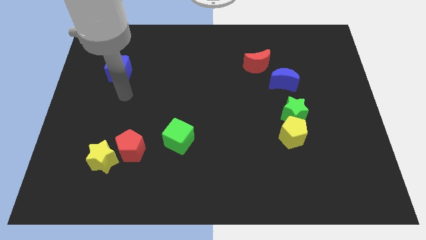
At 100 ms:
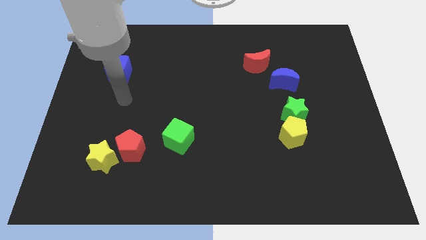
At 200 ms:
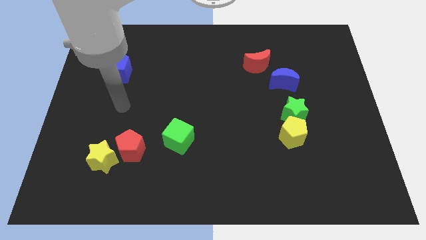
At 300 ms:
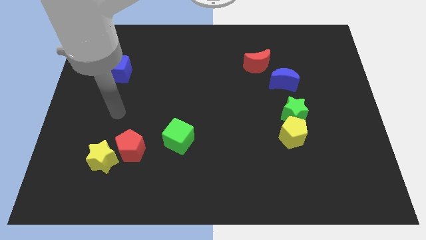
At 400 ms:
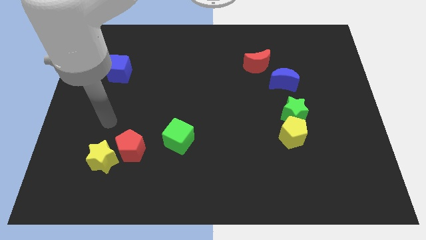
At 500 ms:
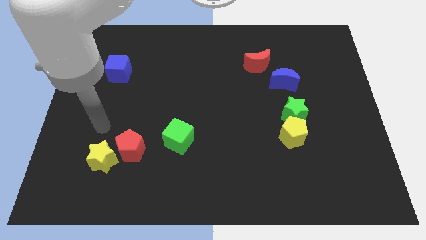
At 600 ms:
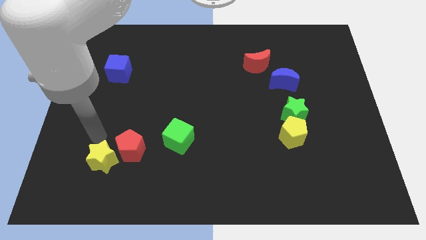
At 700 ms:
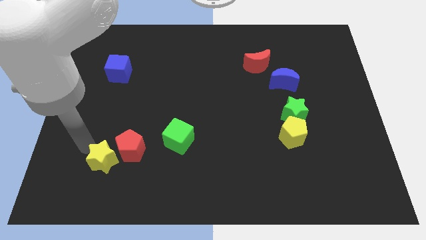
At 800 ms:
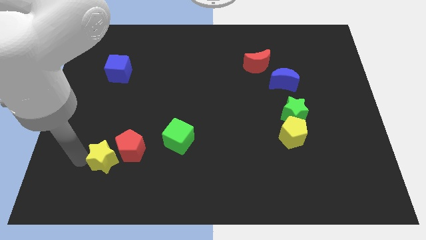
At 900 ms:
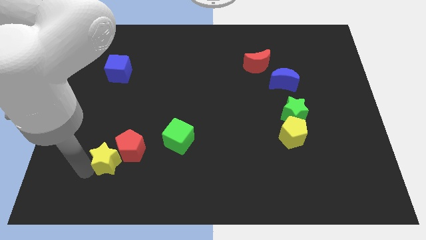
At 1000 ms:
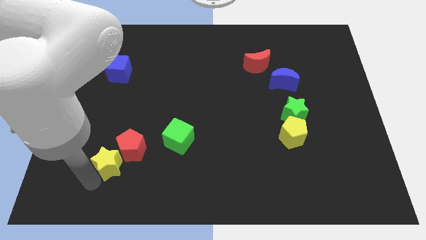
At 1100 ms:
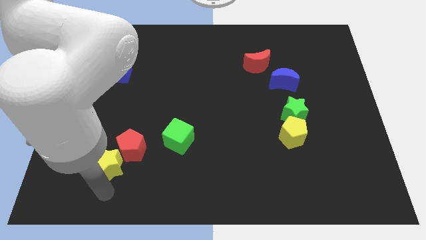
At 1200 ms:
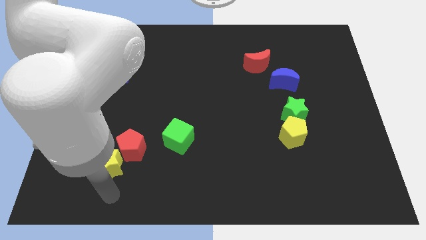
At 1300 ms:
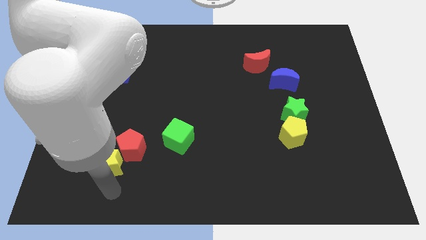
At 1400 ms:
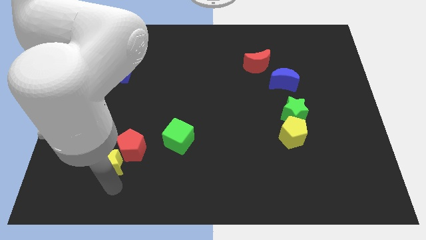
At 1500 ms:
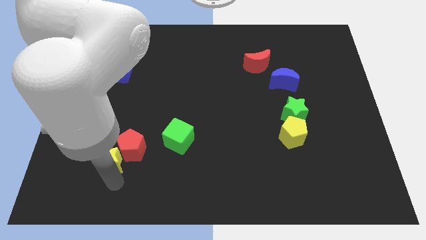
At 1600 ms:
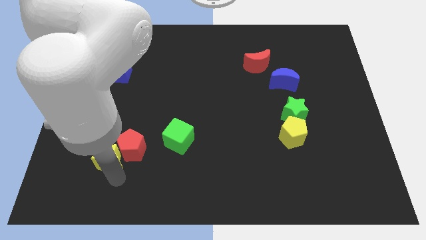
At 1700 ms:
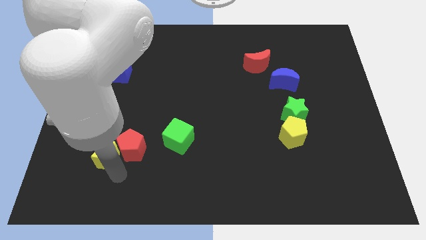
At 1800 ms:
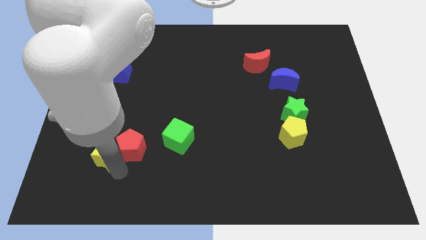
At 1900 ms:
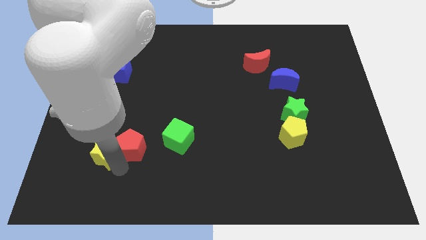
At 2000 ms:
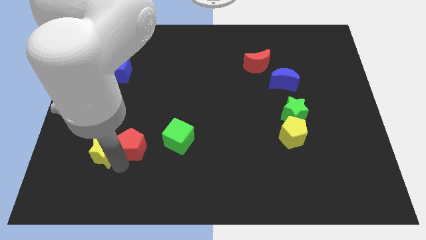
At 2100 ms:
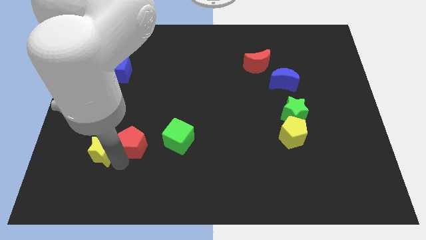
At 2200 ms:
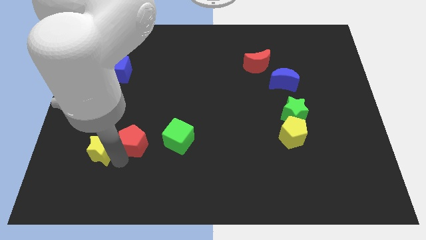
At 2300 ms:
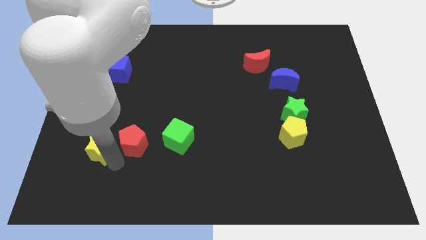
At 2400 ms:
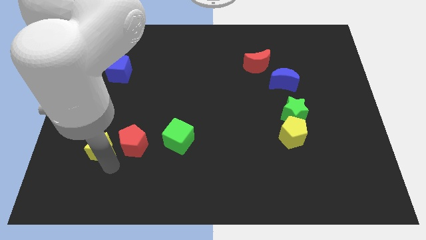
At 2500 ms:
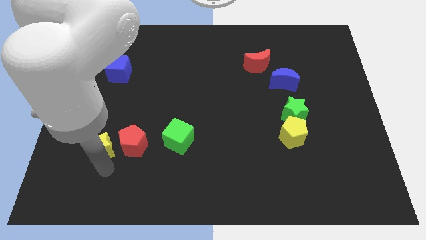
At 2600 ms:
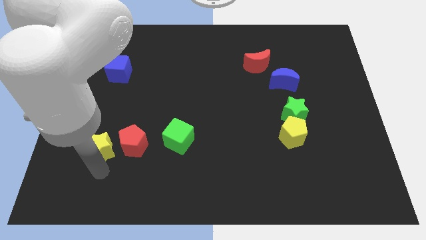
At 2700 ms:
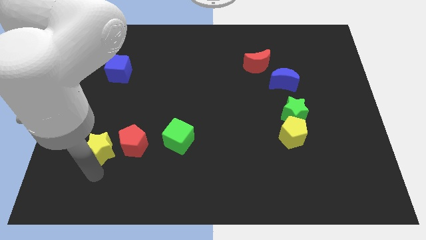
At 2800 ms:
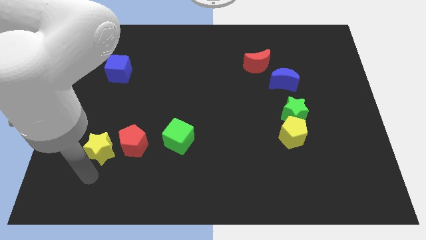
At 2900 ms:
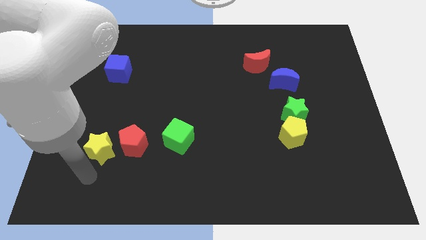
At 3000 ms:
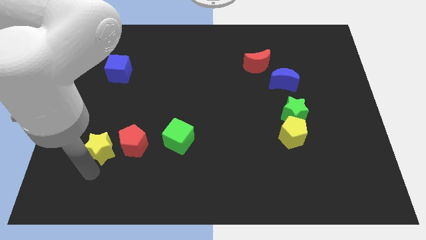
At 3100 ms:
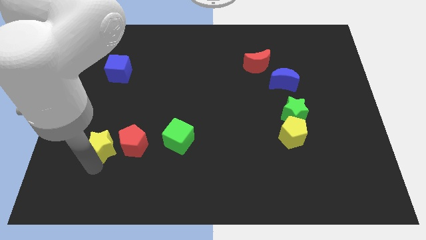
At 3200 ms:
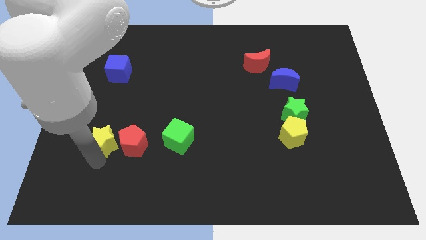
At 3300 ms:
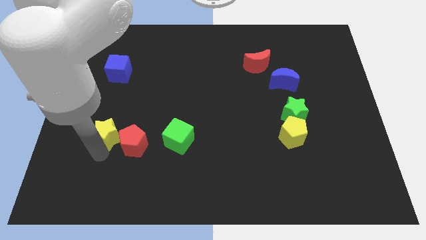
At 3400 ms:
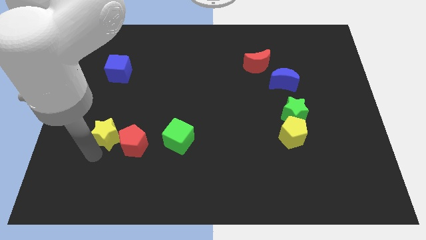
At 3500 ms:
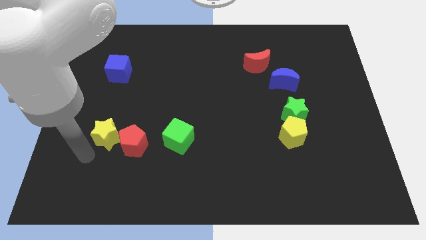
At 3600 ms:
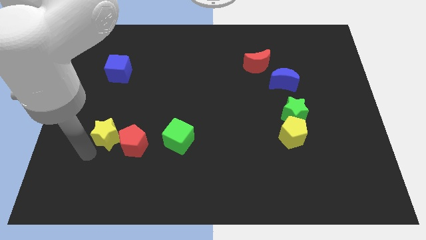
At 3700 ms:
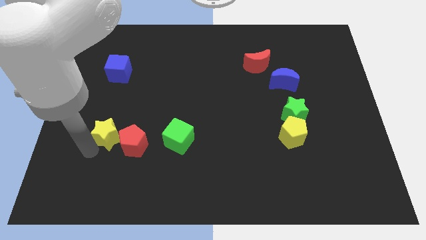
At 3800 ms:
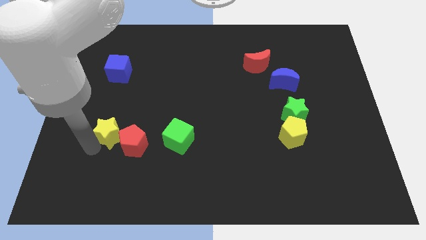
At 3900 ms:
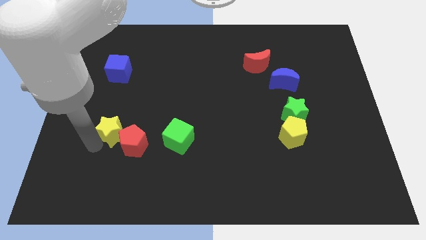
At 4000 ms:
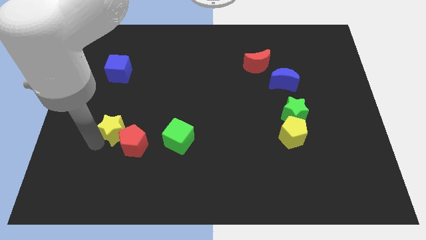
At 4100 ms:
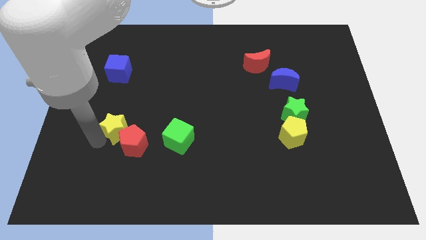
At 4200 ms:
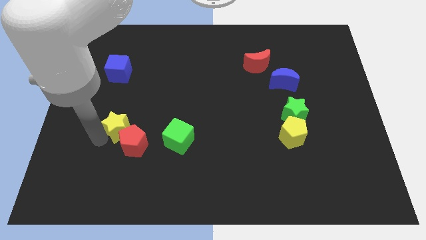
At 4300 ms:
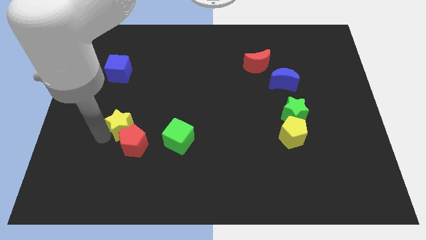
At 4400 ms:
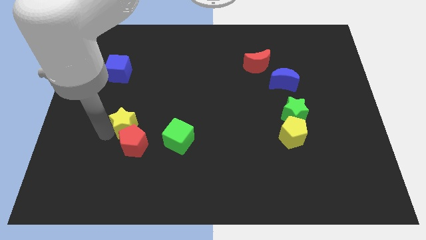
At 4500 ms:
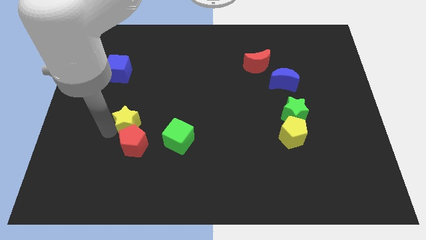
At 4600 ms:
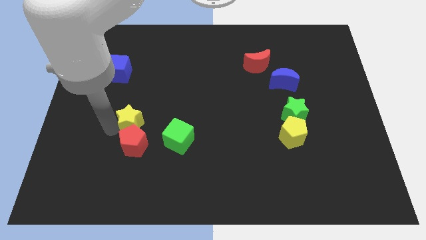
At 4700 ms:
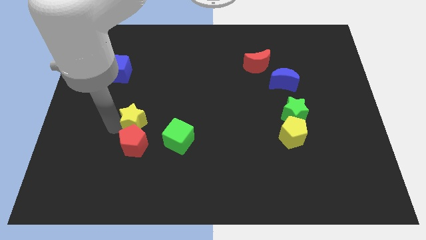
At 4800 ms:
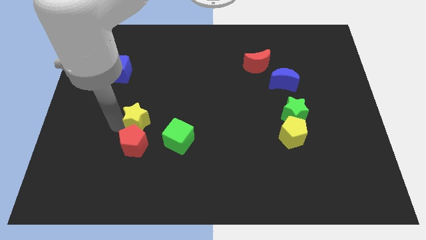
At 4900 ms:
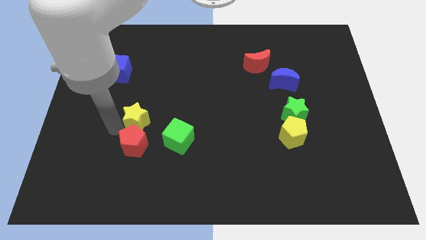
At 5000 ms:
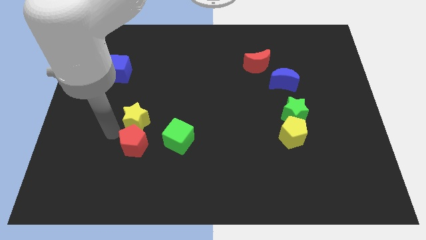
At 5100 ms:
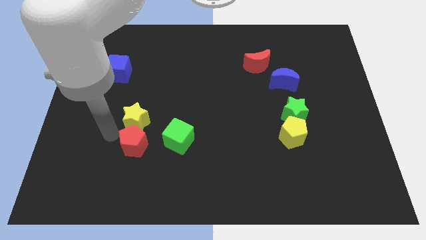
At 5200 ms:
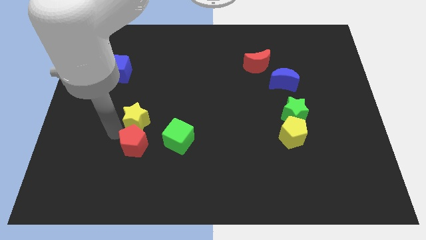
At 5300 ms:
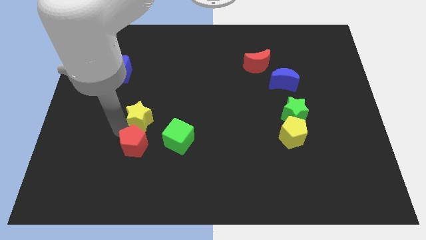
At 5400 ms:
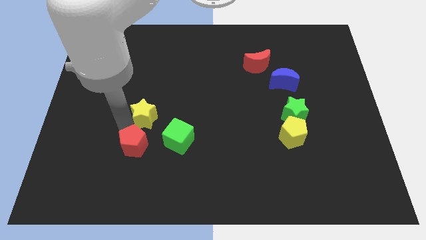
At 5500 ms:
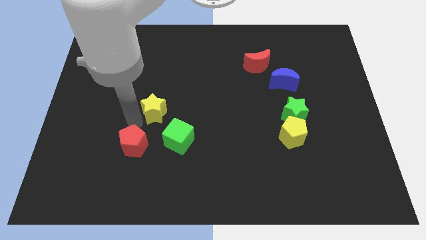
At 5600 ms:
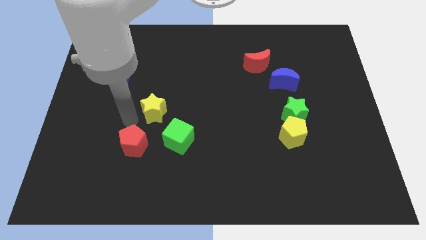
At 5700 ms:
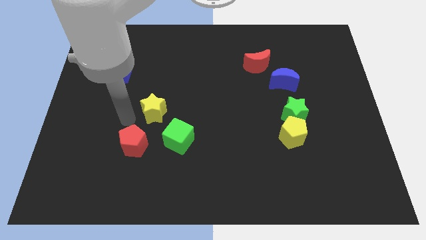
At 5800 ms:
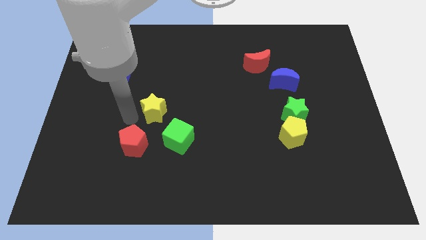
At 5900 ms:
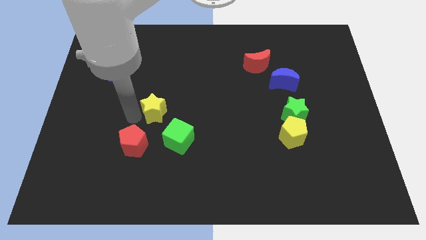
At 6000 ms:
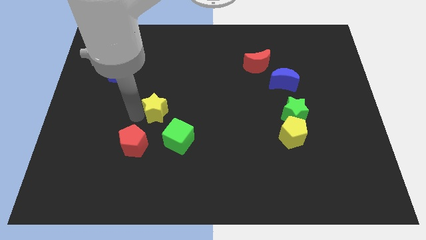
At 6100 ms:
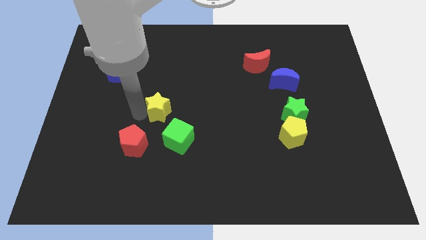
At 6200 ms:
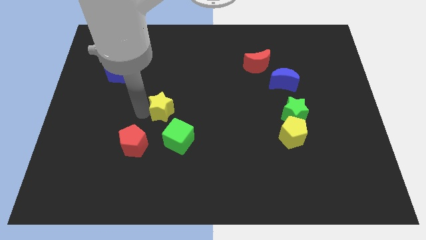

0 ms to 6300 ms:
move the yellow star to the center of the board

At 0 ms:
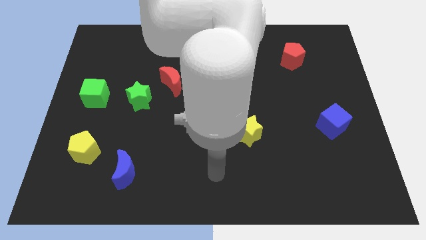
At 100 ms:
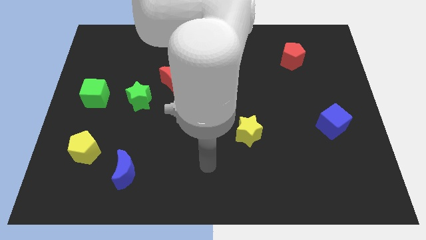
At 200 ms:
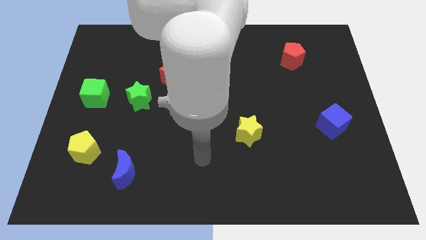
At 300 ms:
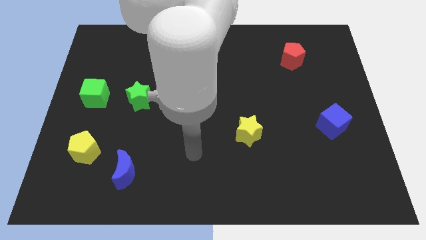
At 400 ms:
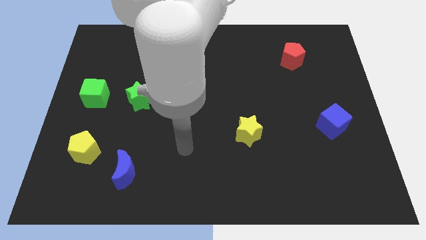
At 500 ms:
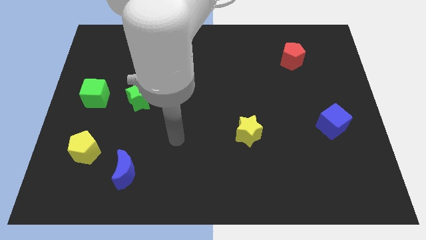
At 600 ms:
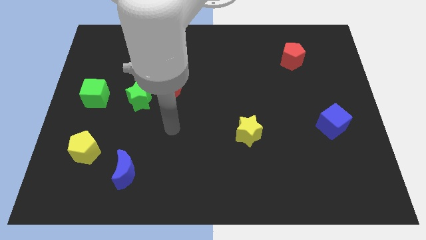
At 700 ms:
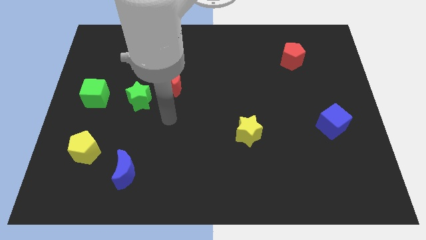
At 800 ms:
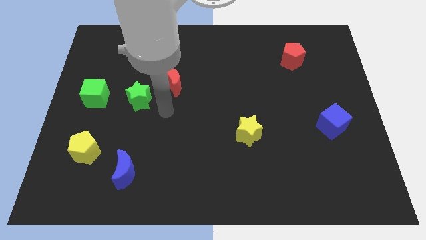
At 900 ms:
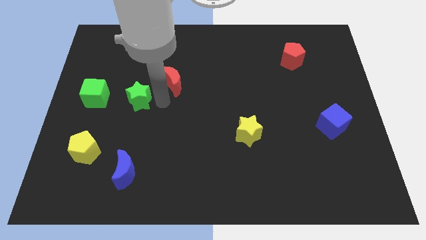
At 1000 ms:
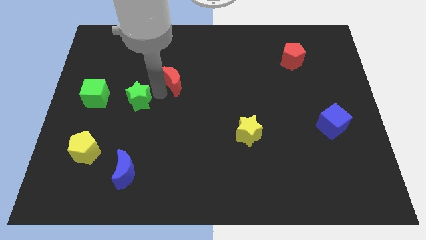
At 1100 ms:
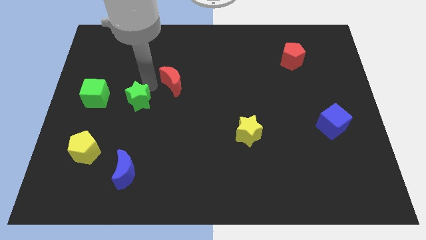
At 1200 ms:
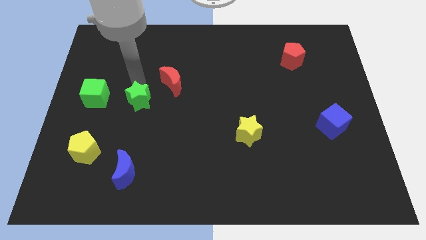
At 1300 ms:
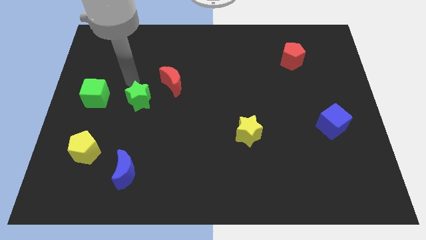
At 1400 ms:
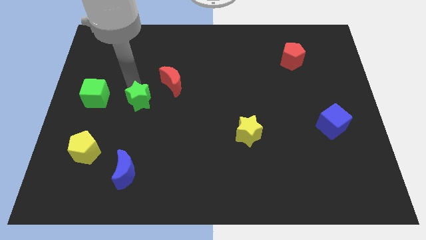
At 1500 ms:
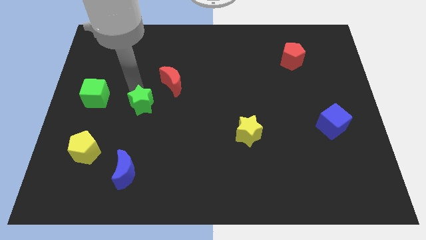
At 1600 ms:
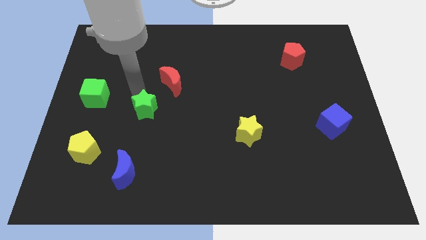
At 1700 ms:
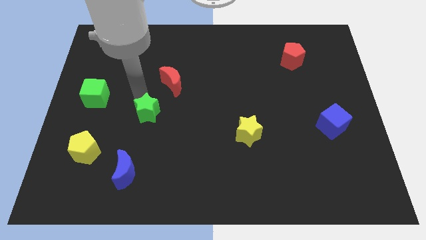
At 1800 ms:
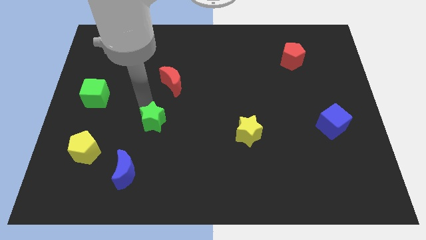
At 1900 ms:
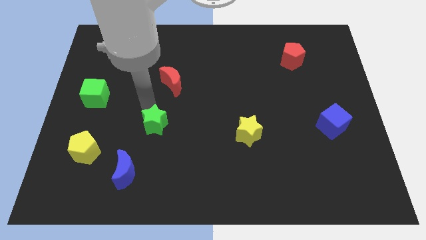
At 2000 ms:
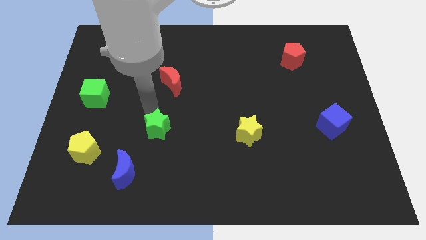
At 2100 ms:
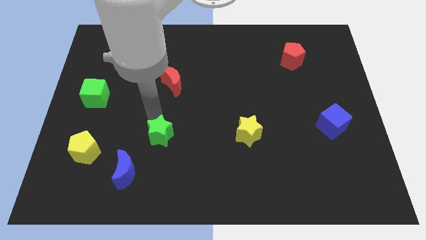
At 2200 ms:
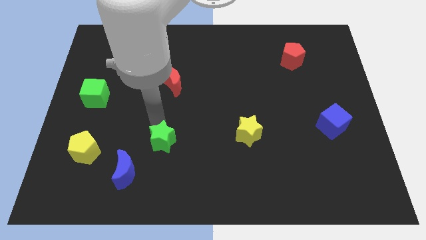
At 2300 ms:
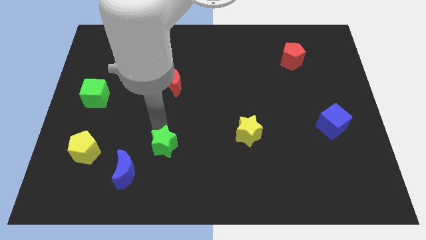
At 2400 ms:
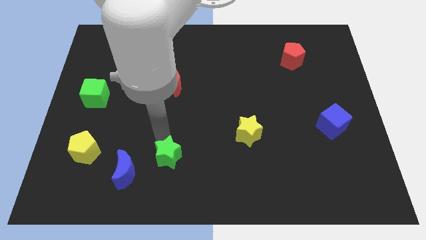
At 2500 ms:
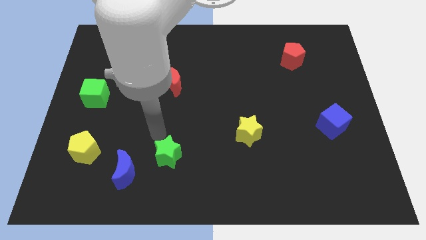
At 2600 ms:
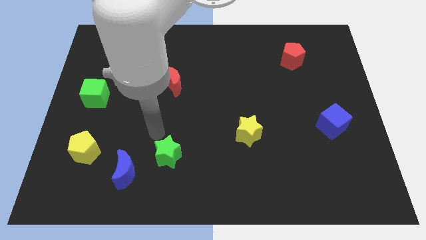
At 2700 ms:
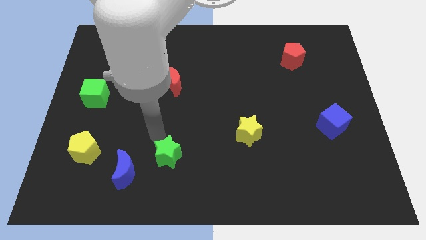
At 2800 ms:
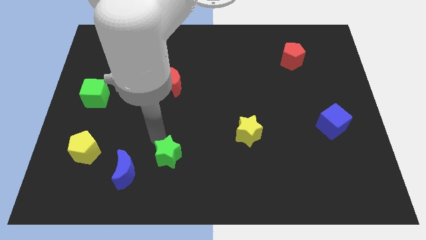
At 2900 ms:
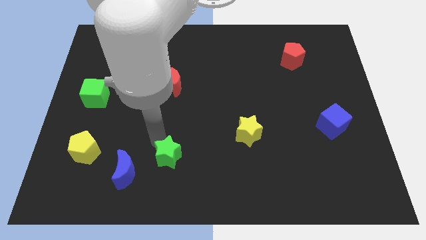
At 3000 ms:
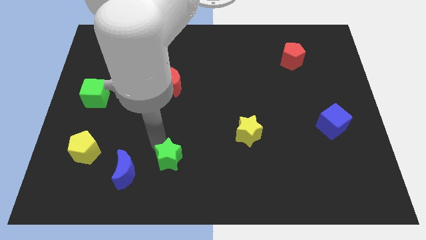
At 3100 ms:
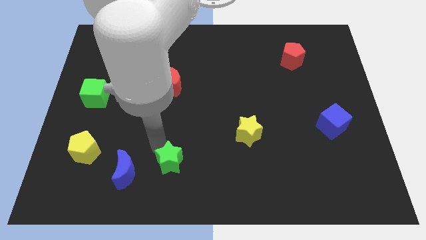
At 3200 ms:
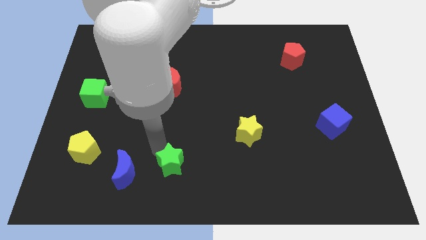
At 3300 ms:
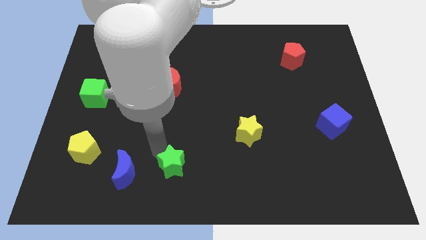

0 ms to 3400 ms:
push the green star to the bottom
